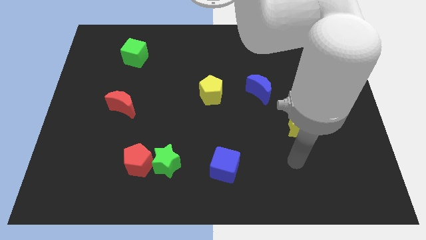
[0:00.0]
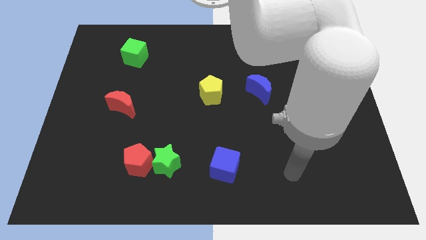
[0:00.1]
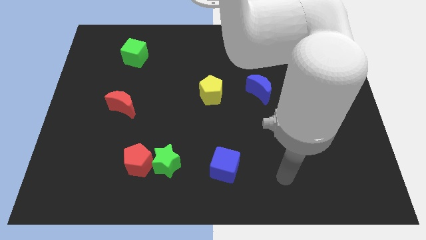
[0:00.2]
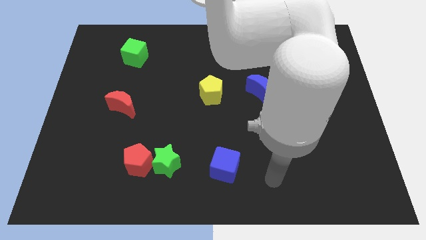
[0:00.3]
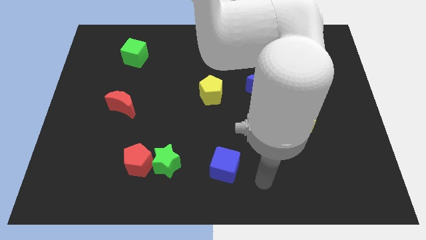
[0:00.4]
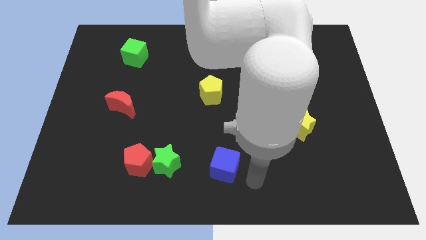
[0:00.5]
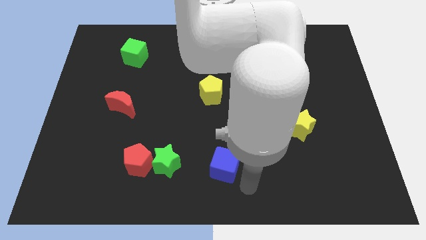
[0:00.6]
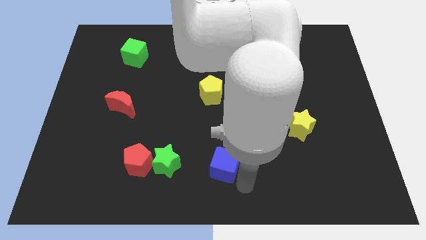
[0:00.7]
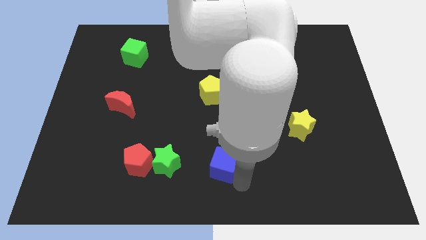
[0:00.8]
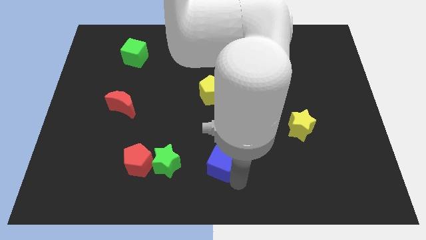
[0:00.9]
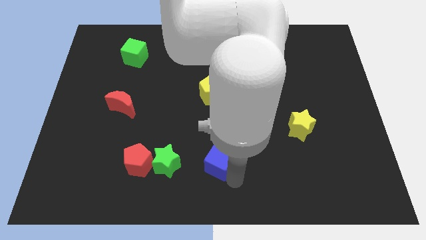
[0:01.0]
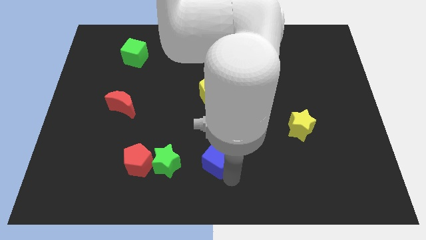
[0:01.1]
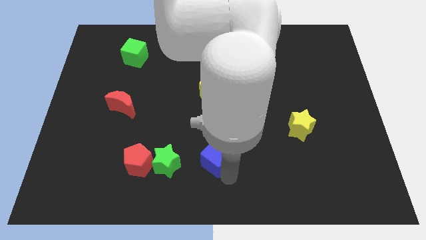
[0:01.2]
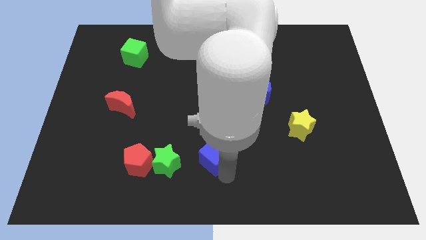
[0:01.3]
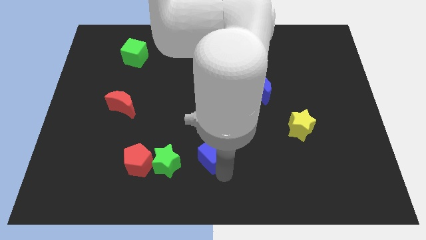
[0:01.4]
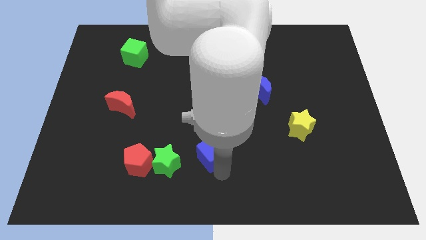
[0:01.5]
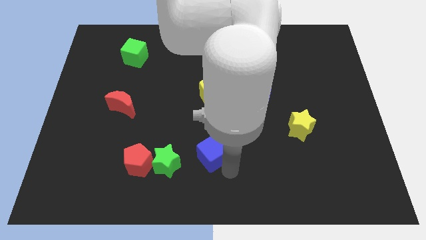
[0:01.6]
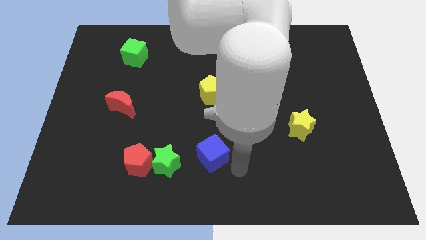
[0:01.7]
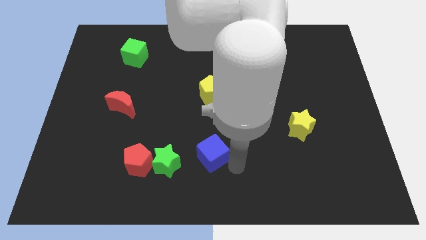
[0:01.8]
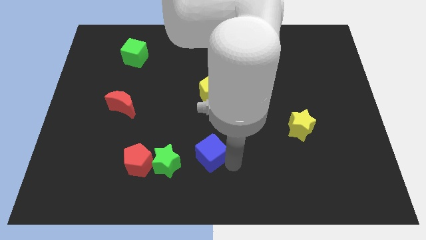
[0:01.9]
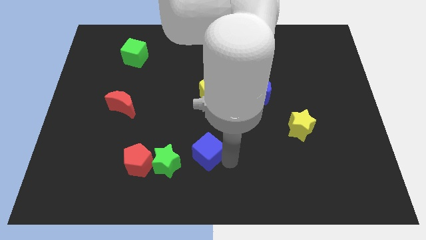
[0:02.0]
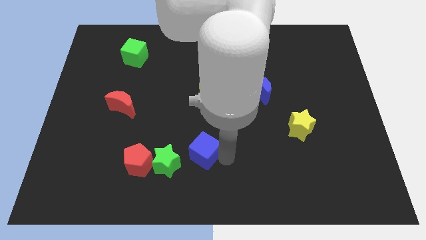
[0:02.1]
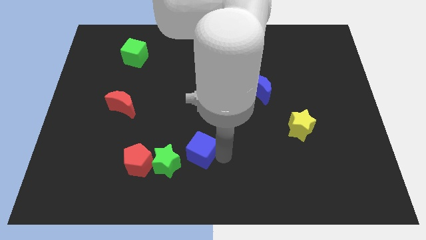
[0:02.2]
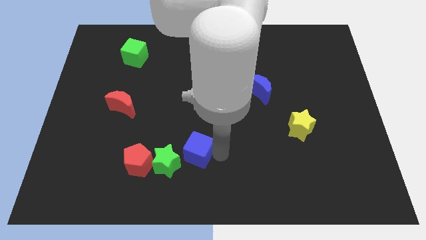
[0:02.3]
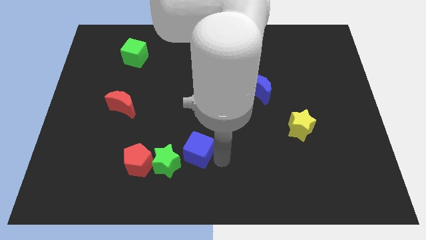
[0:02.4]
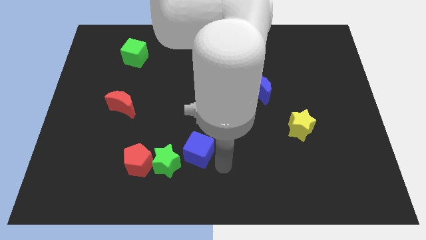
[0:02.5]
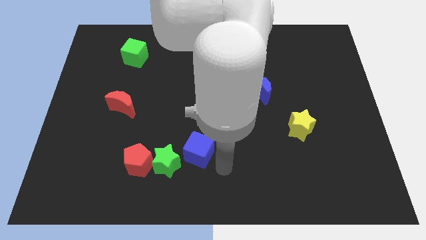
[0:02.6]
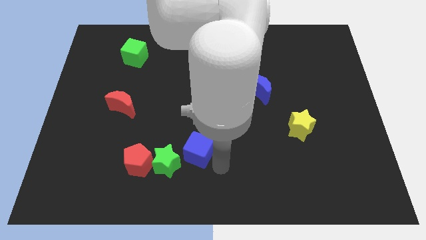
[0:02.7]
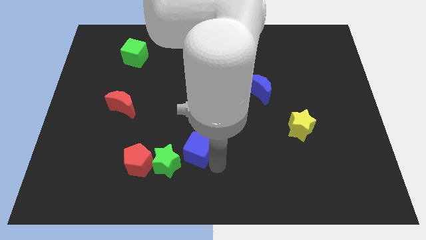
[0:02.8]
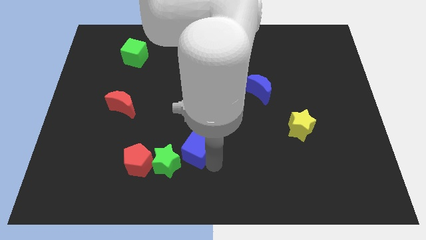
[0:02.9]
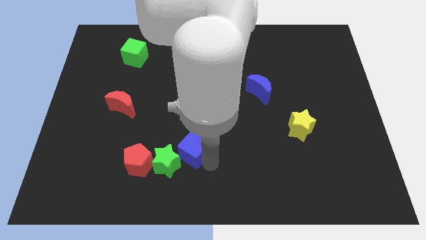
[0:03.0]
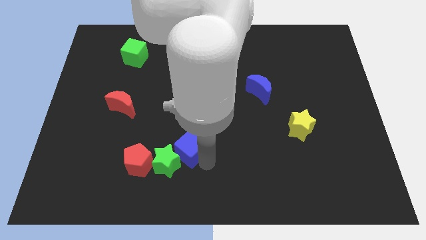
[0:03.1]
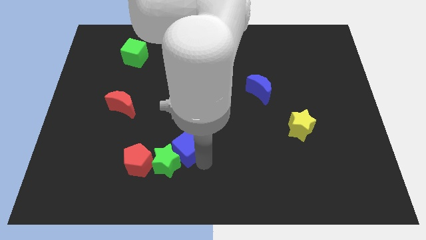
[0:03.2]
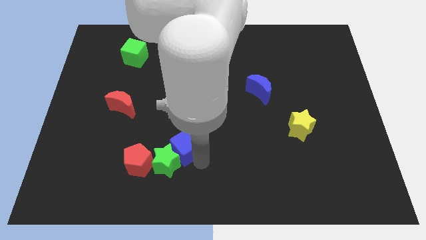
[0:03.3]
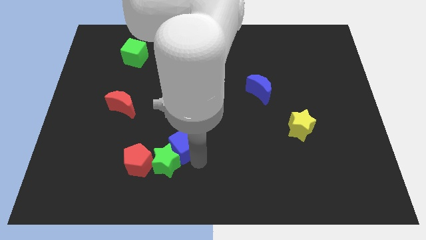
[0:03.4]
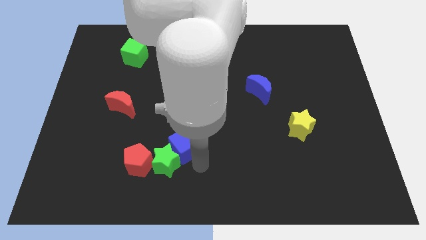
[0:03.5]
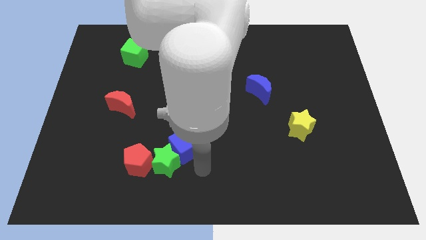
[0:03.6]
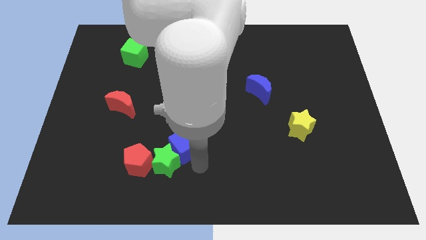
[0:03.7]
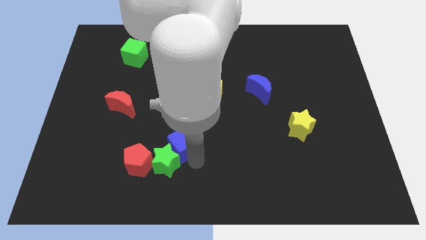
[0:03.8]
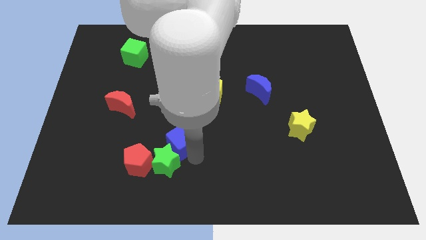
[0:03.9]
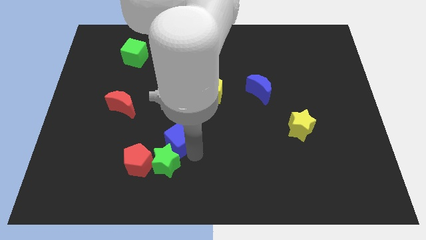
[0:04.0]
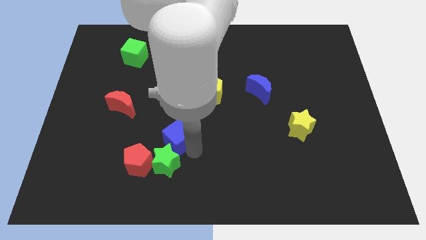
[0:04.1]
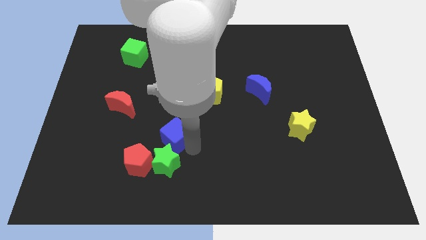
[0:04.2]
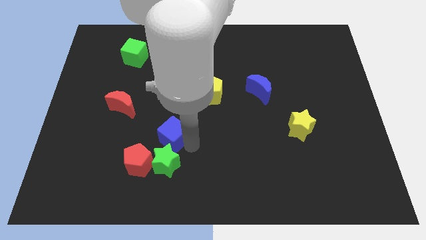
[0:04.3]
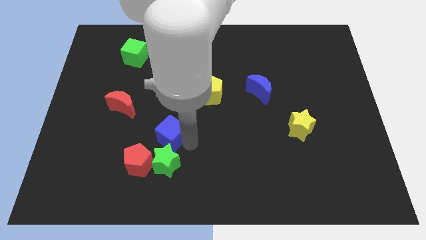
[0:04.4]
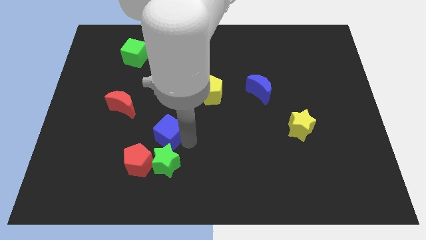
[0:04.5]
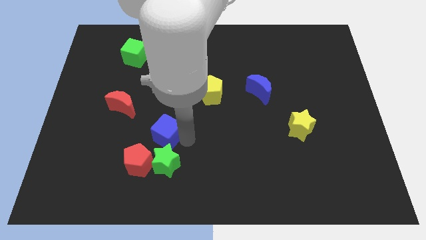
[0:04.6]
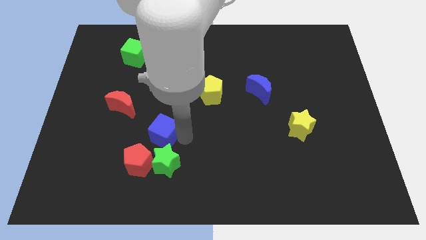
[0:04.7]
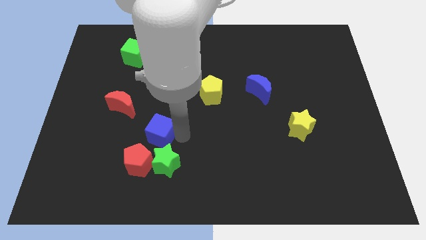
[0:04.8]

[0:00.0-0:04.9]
put the blue cube to the bottom right of the red moon

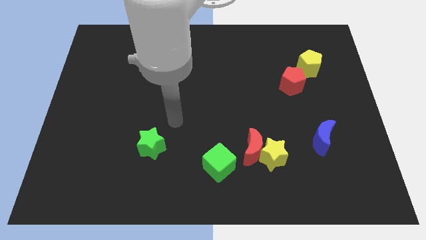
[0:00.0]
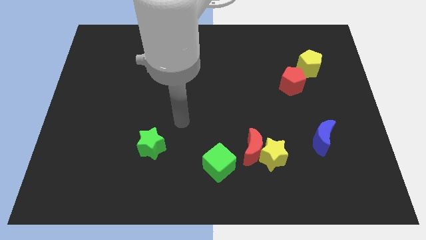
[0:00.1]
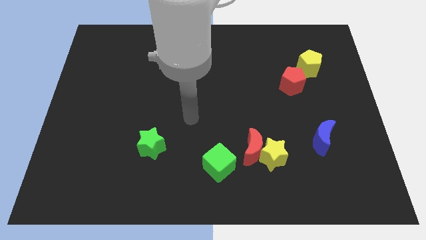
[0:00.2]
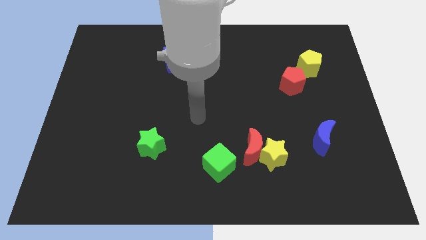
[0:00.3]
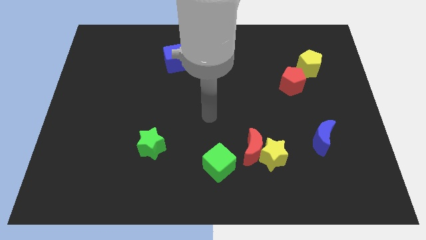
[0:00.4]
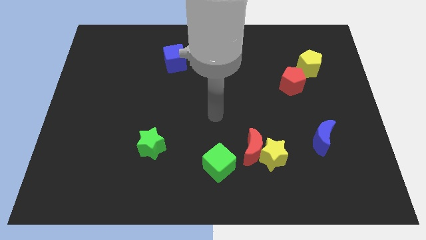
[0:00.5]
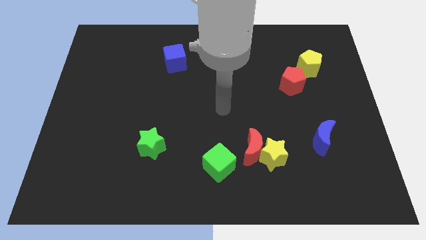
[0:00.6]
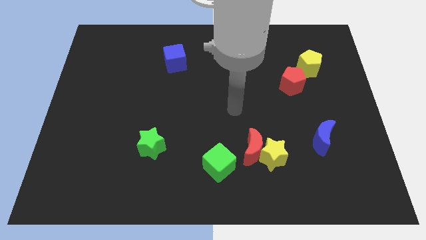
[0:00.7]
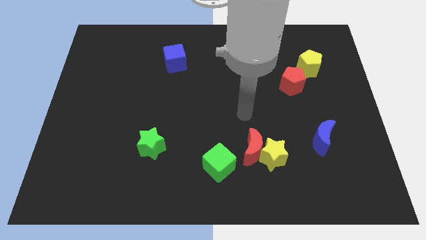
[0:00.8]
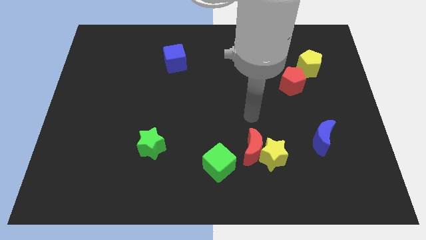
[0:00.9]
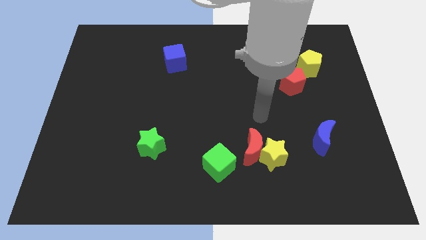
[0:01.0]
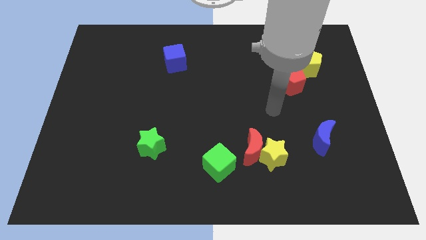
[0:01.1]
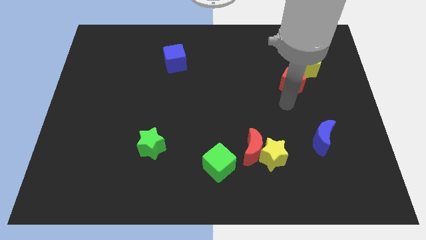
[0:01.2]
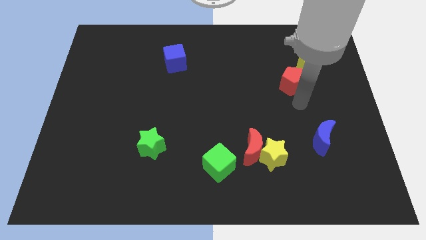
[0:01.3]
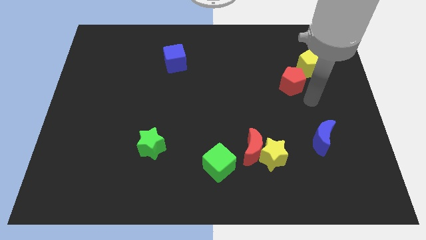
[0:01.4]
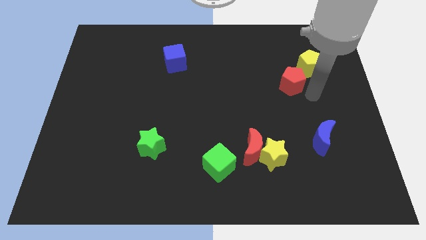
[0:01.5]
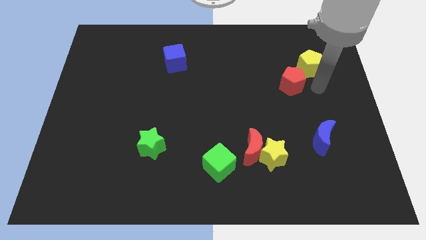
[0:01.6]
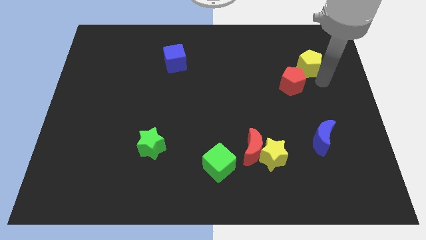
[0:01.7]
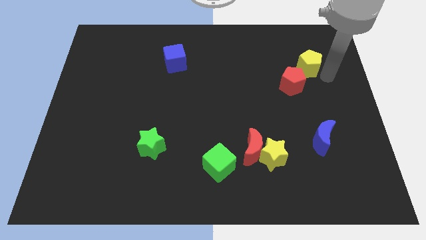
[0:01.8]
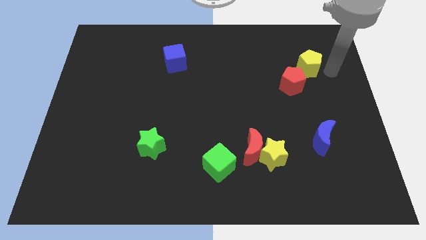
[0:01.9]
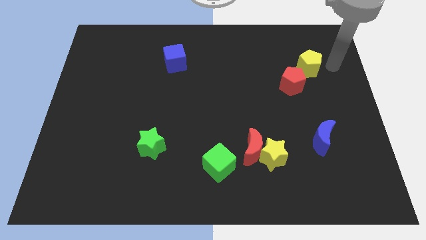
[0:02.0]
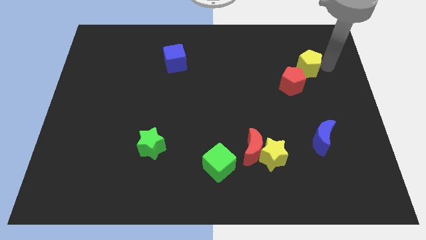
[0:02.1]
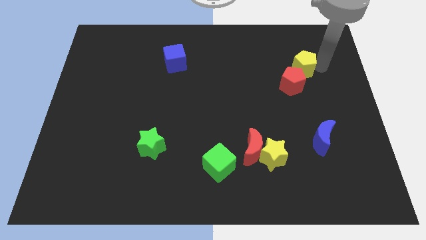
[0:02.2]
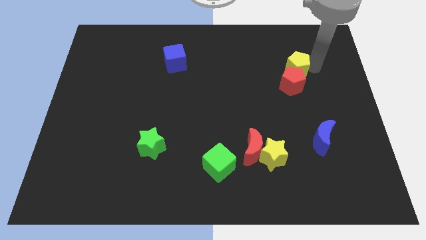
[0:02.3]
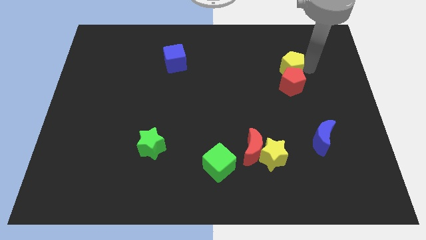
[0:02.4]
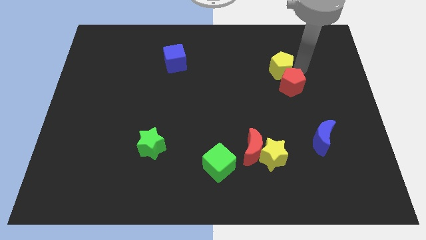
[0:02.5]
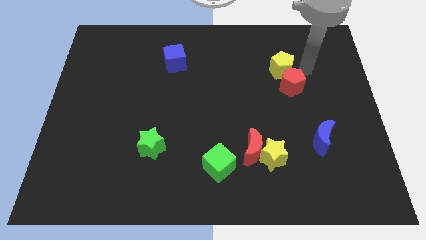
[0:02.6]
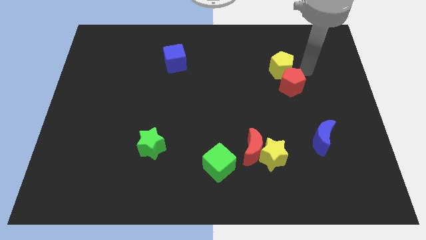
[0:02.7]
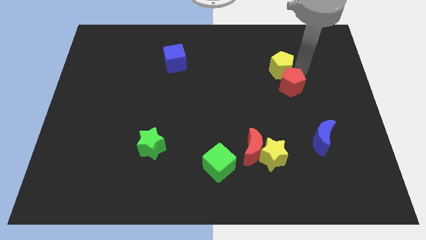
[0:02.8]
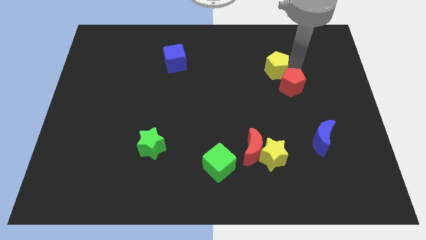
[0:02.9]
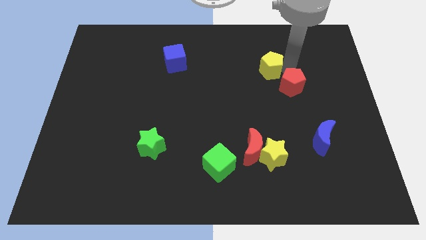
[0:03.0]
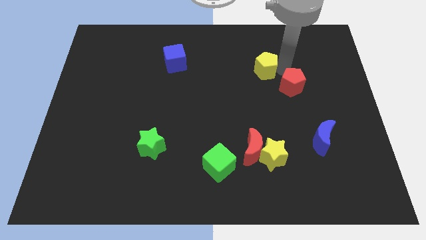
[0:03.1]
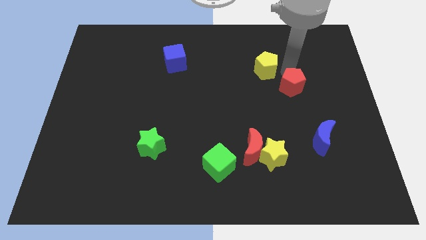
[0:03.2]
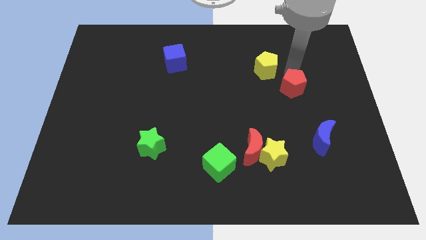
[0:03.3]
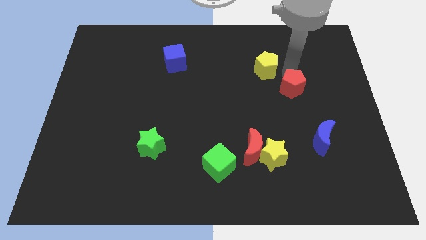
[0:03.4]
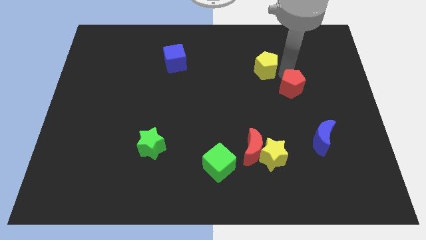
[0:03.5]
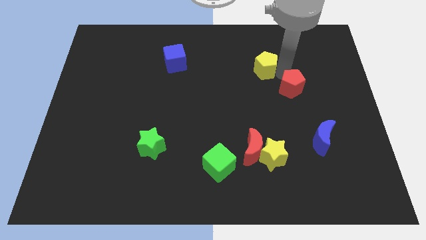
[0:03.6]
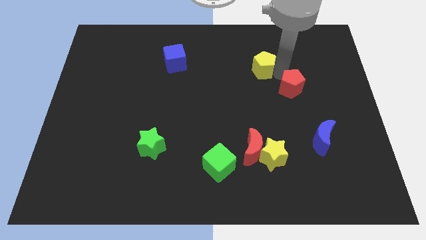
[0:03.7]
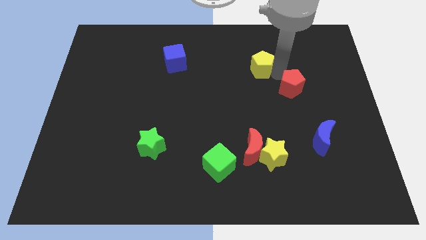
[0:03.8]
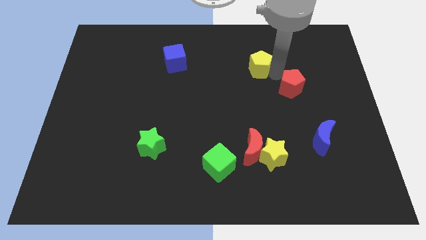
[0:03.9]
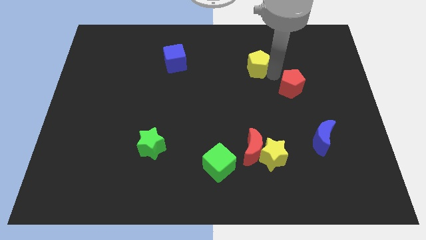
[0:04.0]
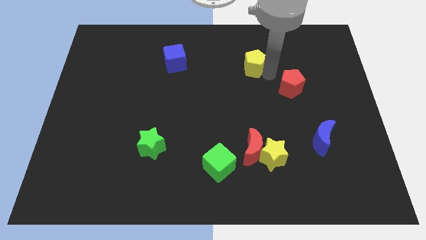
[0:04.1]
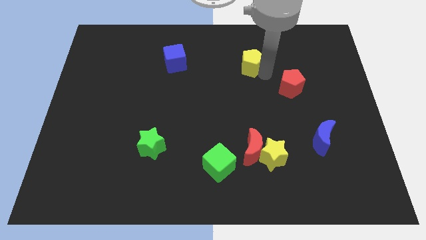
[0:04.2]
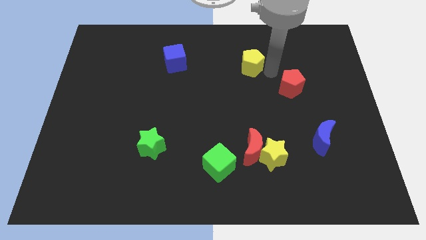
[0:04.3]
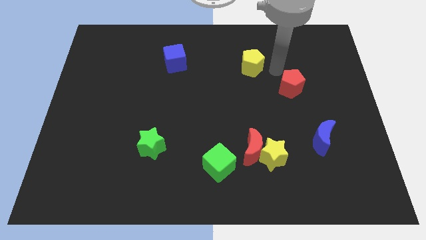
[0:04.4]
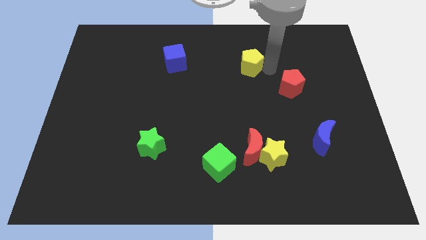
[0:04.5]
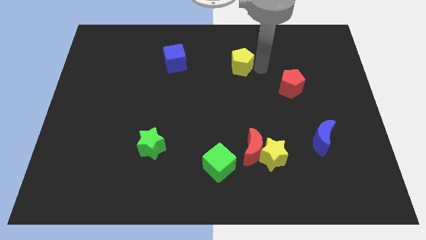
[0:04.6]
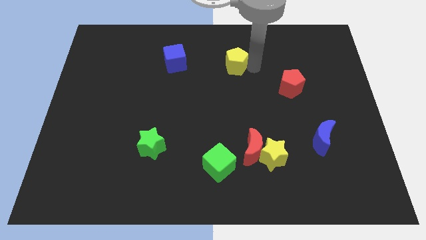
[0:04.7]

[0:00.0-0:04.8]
push the yellow pentagon to the right of the blue cube
